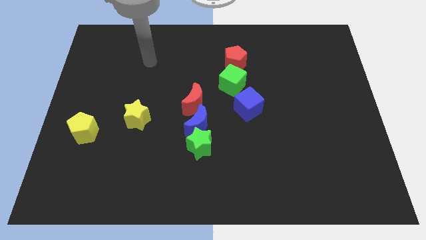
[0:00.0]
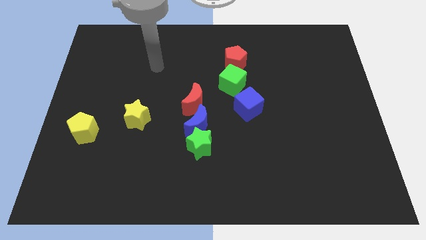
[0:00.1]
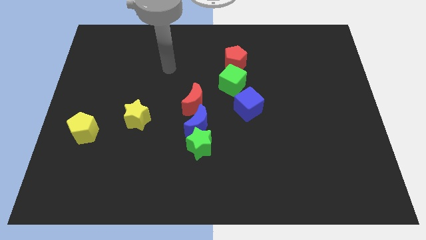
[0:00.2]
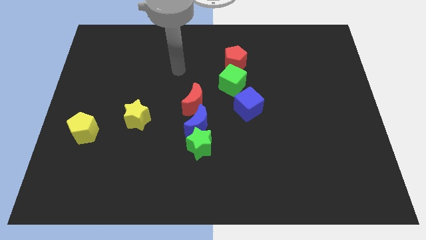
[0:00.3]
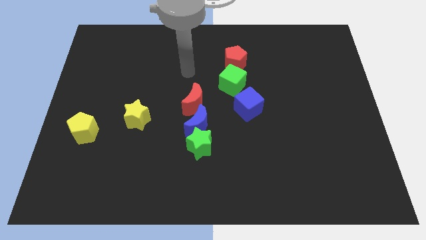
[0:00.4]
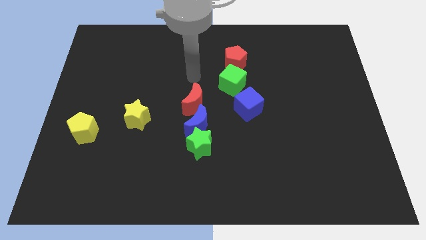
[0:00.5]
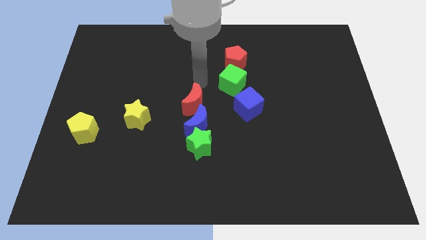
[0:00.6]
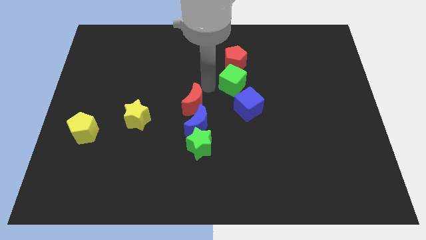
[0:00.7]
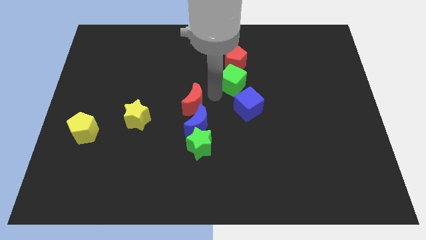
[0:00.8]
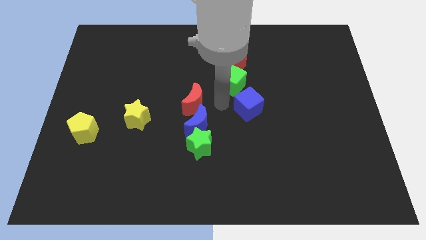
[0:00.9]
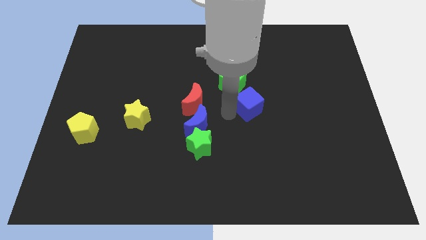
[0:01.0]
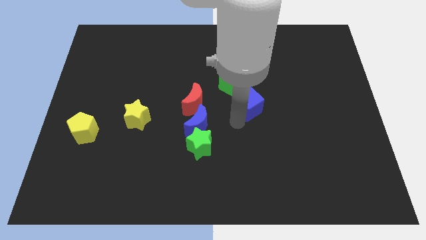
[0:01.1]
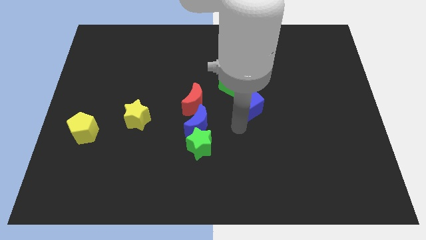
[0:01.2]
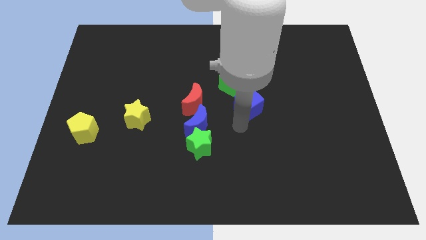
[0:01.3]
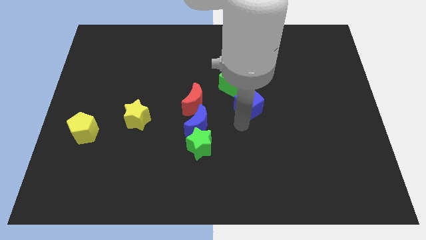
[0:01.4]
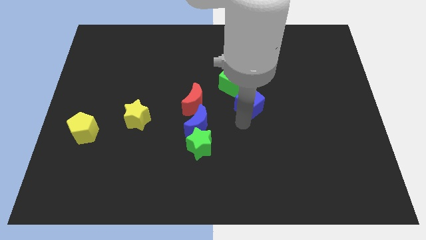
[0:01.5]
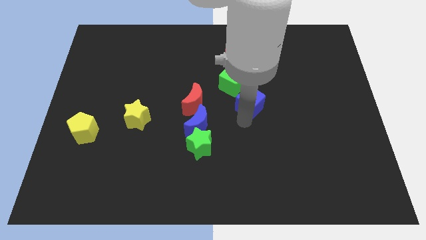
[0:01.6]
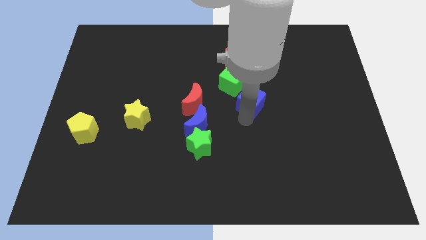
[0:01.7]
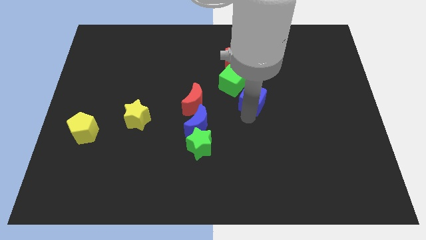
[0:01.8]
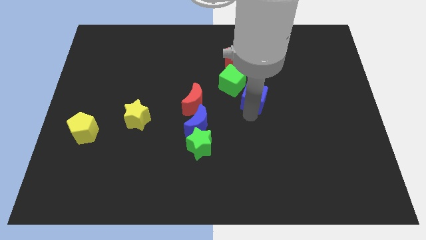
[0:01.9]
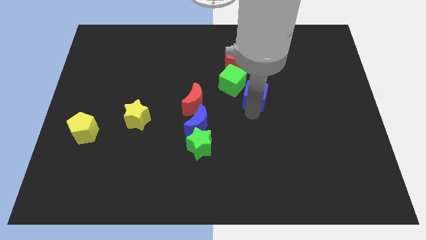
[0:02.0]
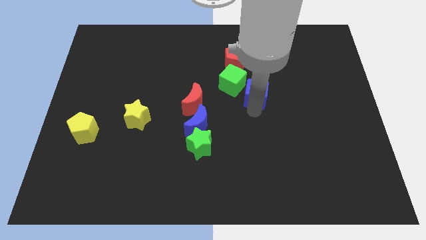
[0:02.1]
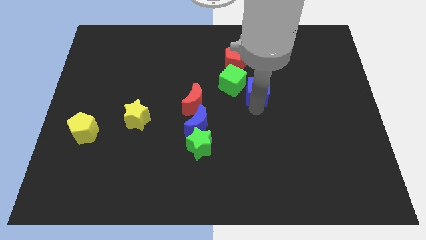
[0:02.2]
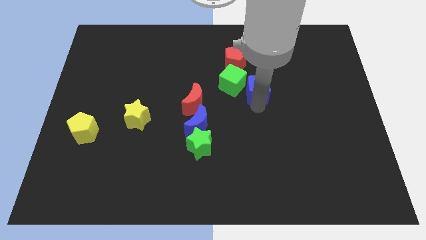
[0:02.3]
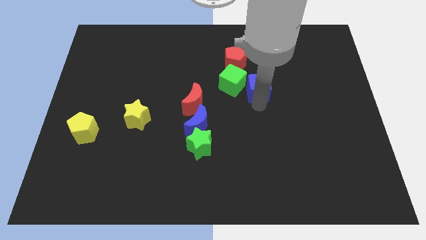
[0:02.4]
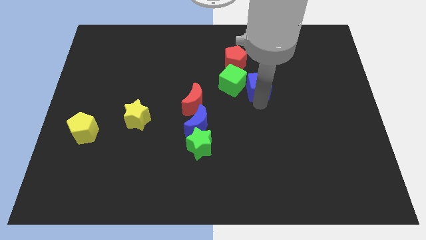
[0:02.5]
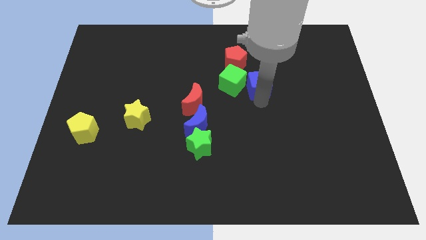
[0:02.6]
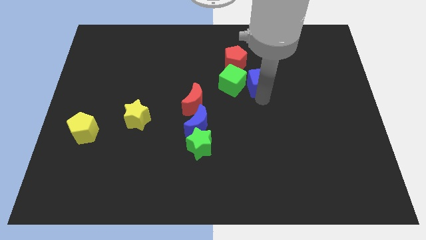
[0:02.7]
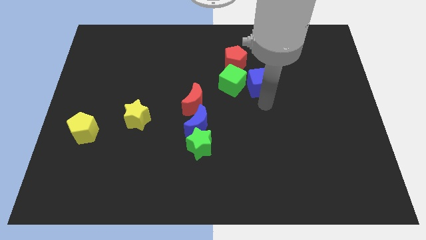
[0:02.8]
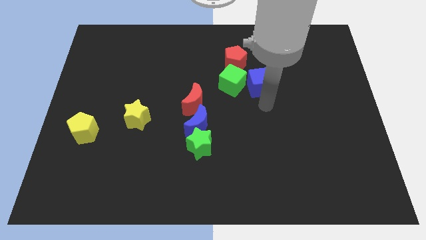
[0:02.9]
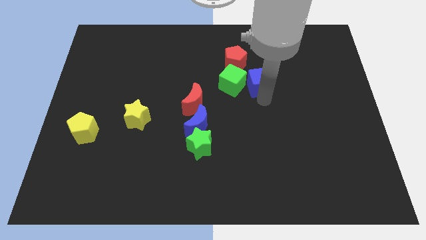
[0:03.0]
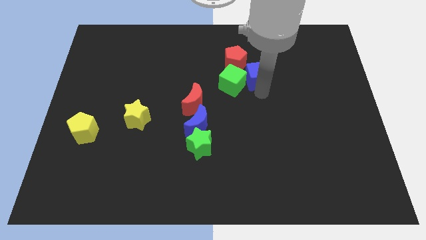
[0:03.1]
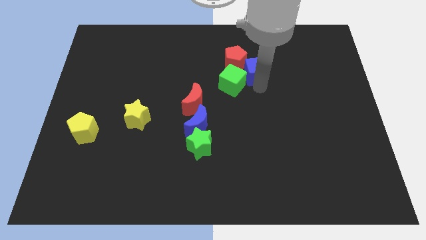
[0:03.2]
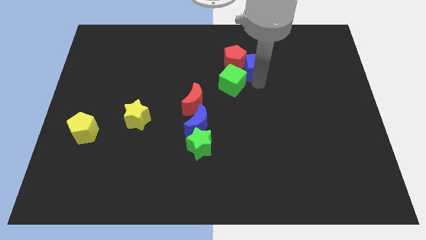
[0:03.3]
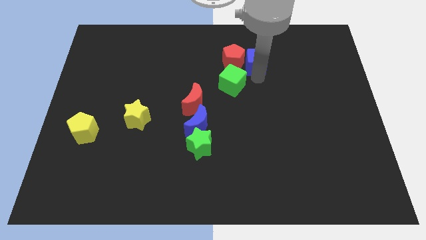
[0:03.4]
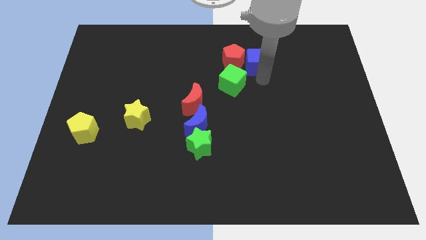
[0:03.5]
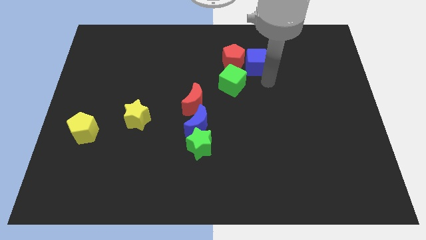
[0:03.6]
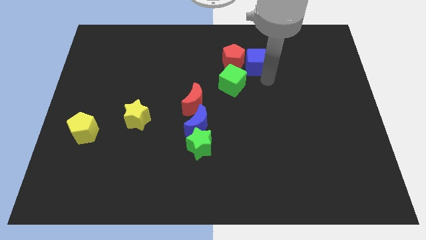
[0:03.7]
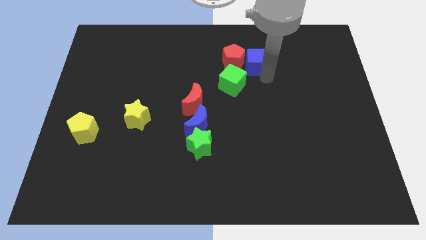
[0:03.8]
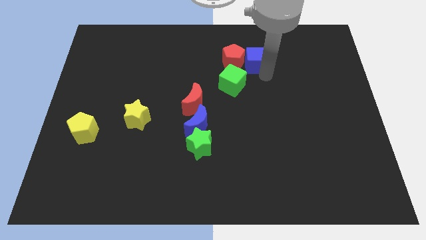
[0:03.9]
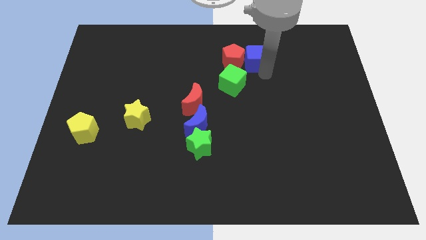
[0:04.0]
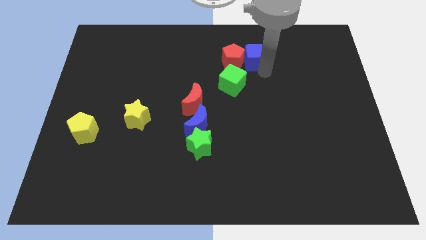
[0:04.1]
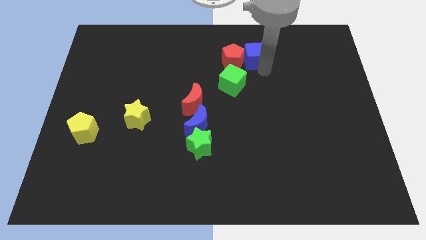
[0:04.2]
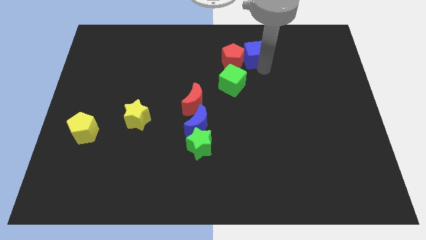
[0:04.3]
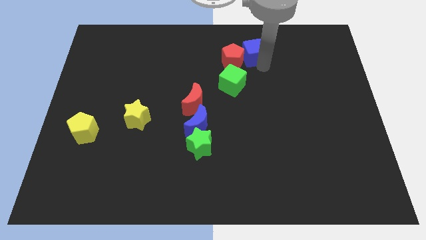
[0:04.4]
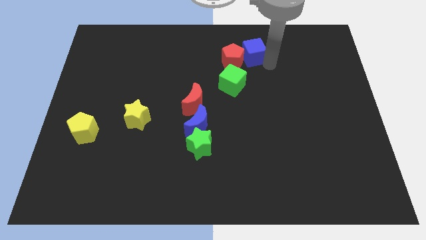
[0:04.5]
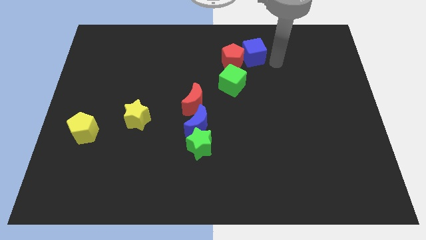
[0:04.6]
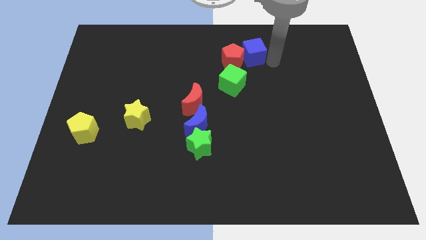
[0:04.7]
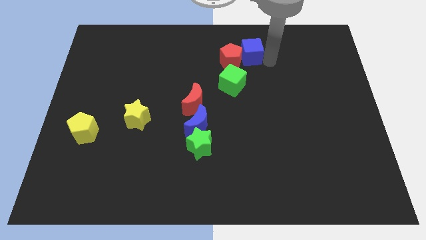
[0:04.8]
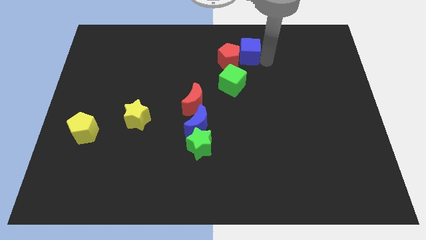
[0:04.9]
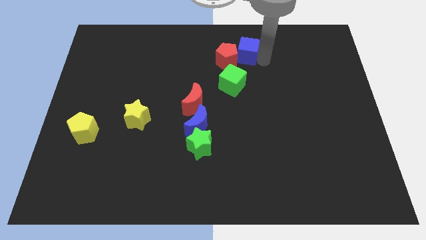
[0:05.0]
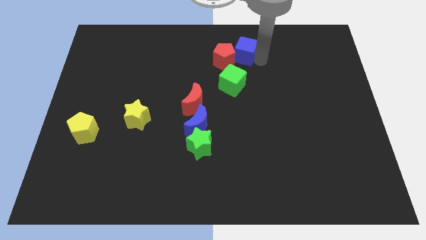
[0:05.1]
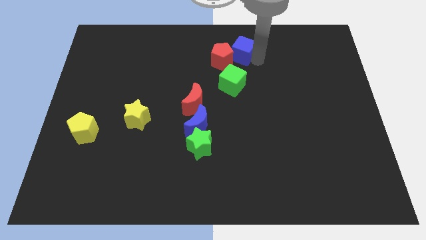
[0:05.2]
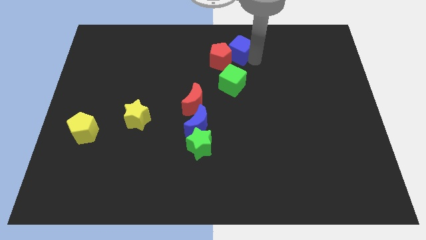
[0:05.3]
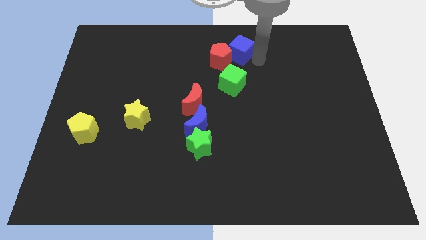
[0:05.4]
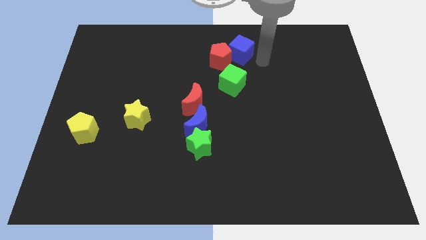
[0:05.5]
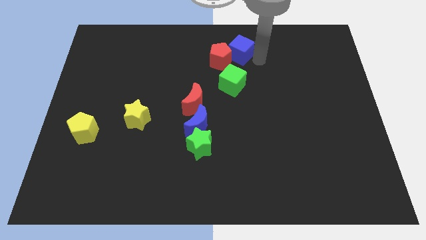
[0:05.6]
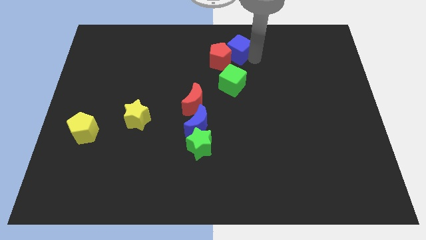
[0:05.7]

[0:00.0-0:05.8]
slide the blue cube to the towards your base
